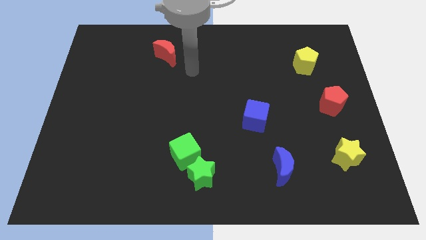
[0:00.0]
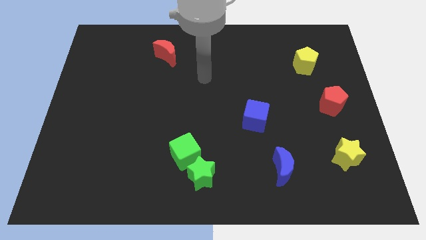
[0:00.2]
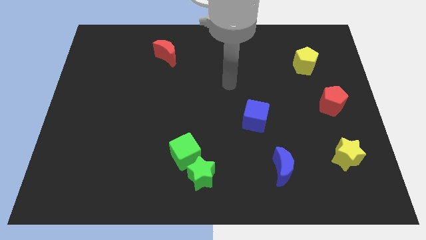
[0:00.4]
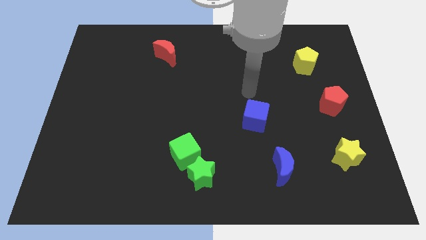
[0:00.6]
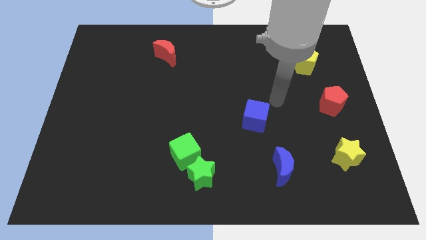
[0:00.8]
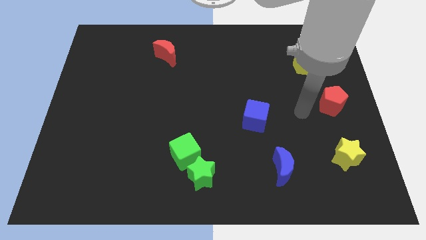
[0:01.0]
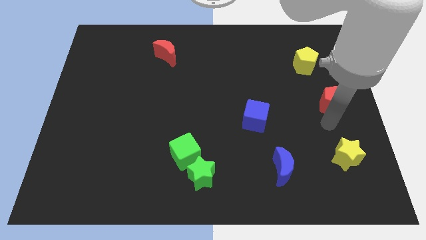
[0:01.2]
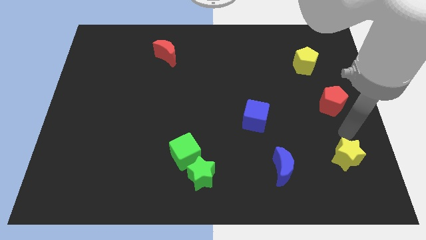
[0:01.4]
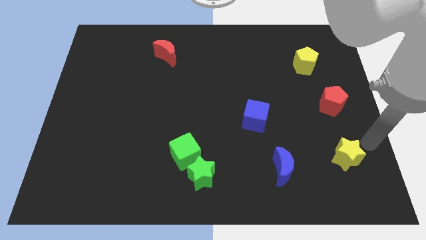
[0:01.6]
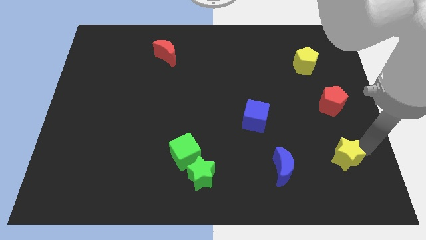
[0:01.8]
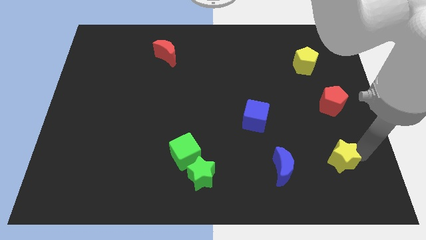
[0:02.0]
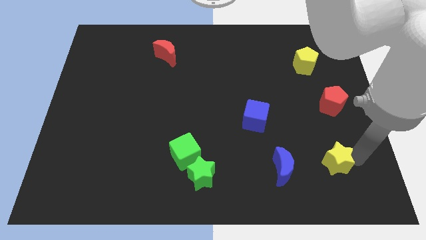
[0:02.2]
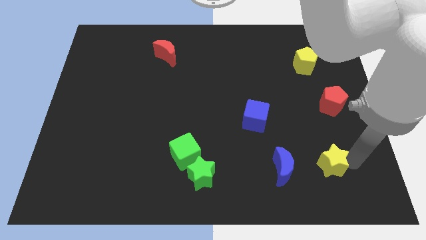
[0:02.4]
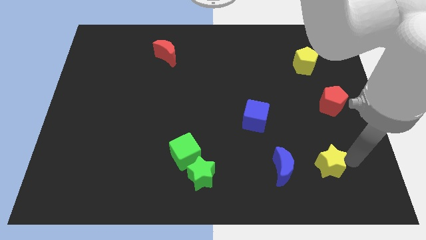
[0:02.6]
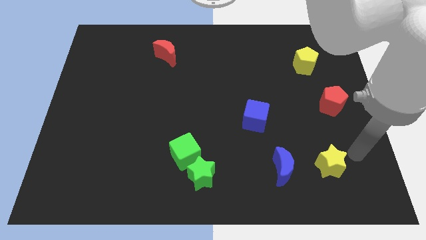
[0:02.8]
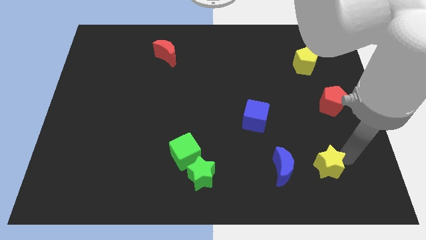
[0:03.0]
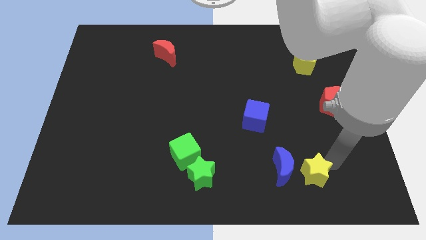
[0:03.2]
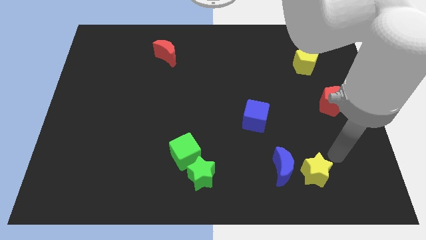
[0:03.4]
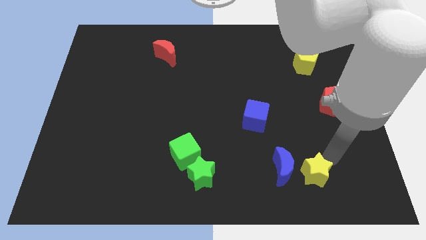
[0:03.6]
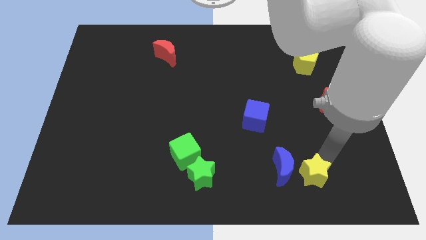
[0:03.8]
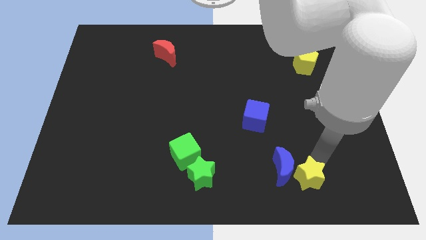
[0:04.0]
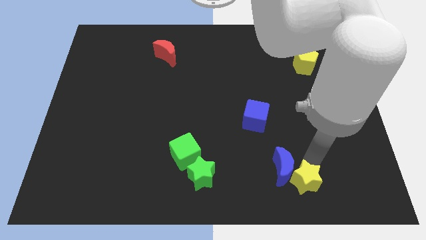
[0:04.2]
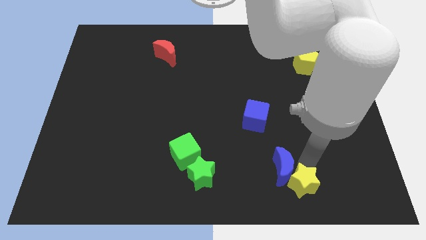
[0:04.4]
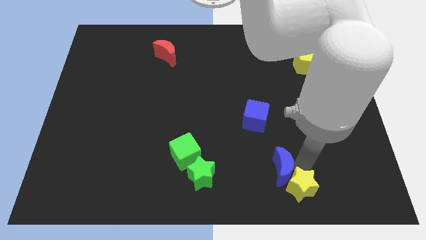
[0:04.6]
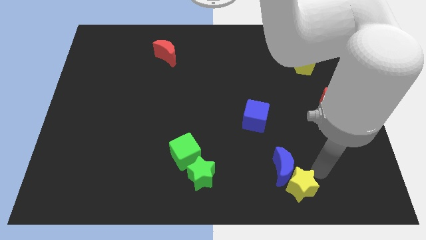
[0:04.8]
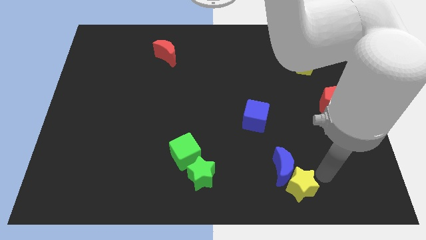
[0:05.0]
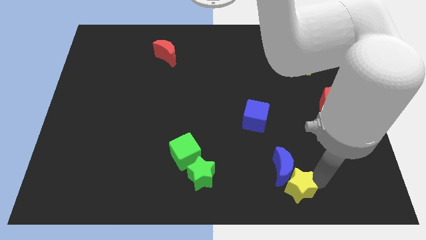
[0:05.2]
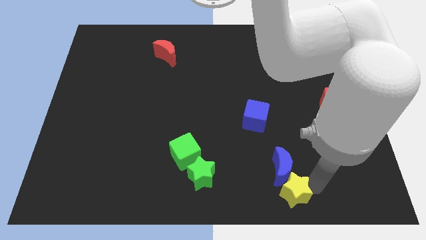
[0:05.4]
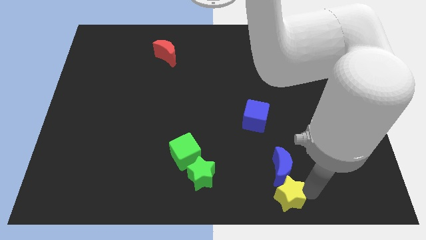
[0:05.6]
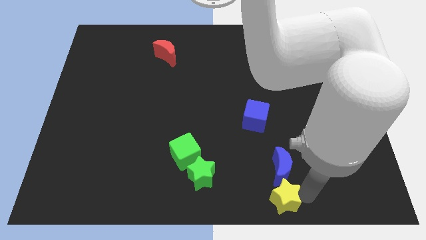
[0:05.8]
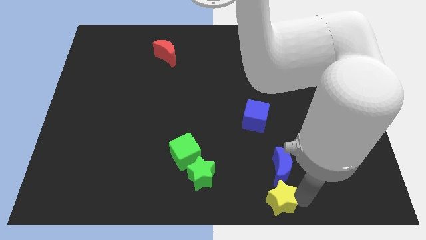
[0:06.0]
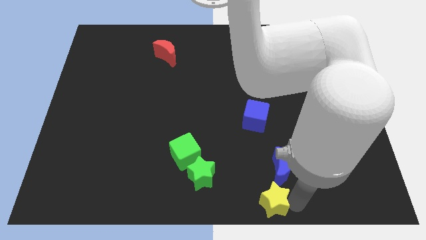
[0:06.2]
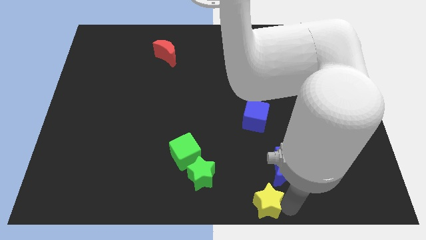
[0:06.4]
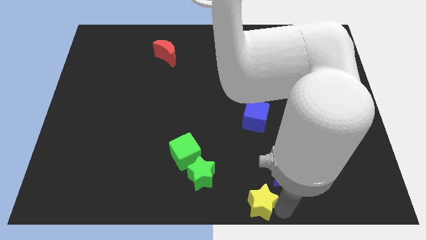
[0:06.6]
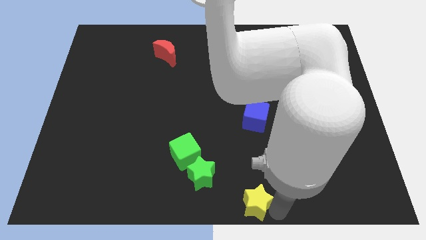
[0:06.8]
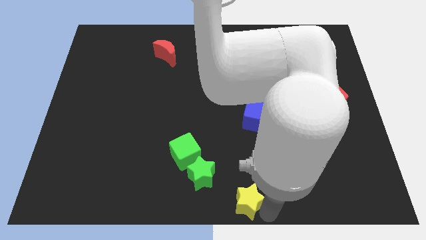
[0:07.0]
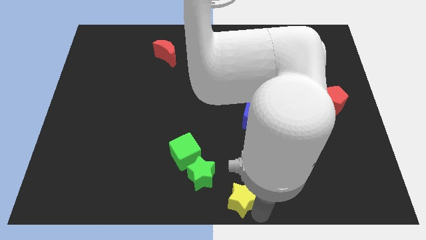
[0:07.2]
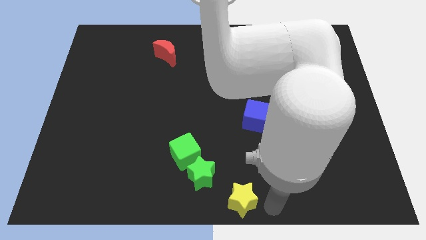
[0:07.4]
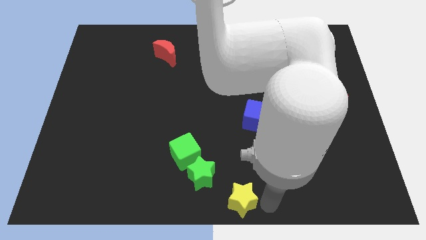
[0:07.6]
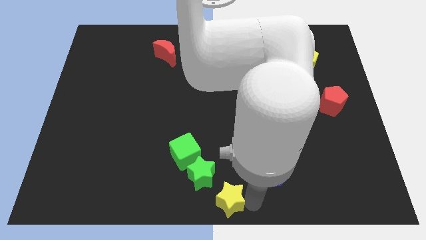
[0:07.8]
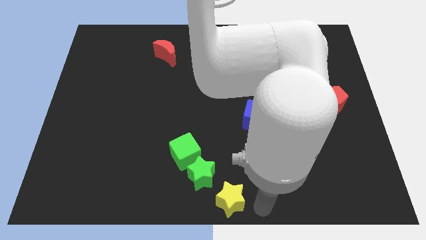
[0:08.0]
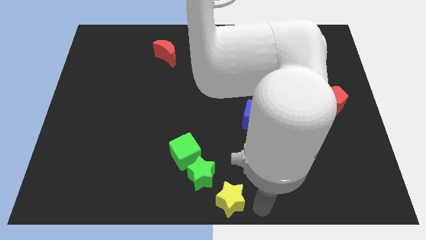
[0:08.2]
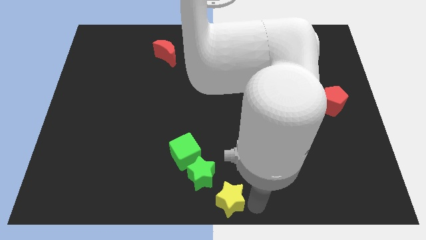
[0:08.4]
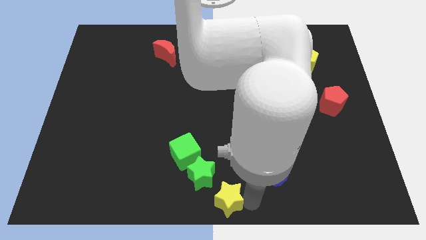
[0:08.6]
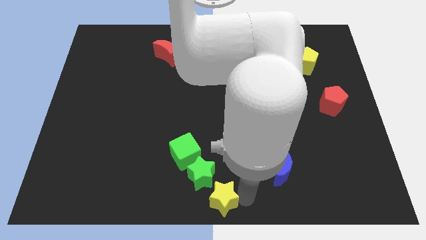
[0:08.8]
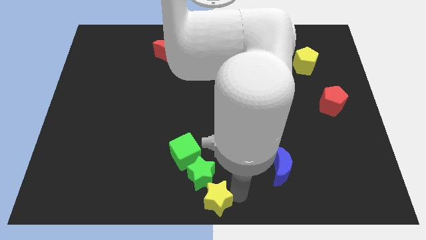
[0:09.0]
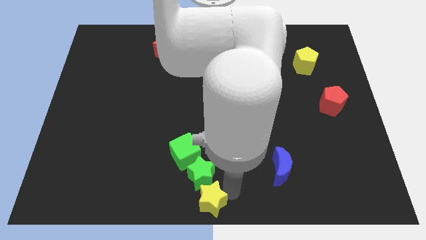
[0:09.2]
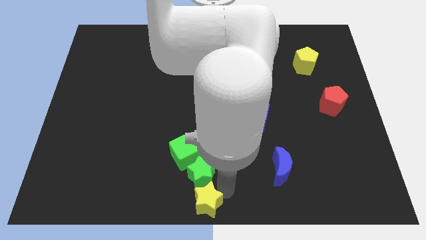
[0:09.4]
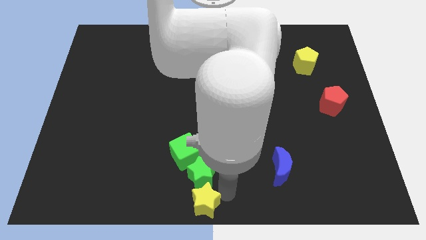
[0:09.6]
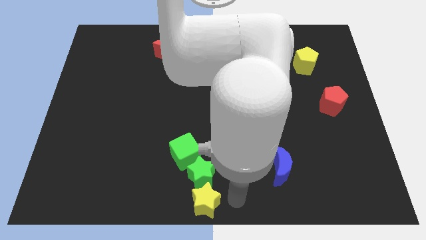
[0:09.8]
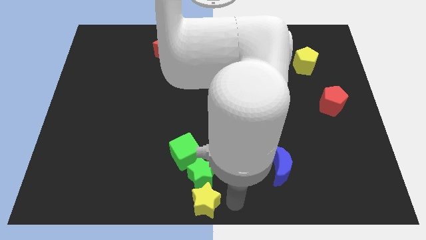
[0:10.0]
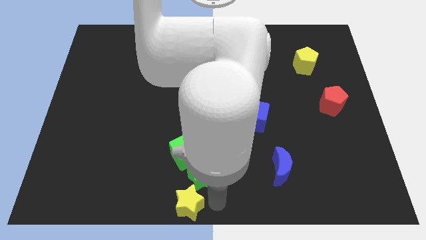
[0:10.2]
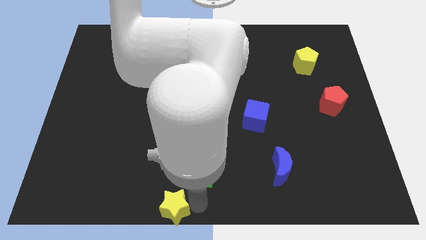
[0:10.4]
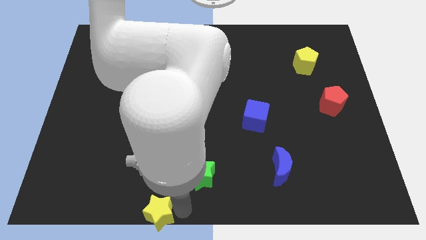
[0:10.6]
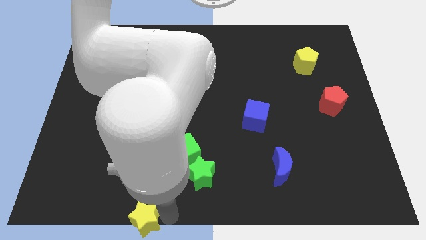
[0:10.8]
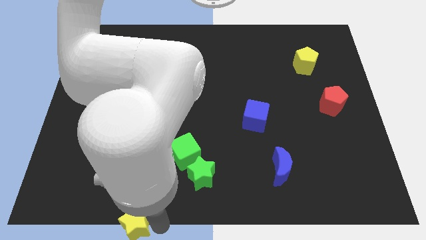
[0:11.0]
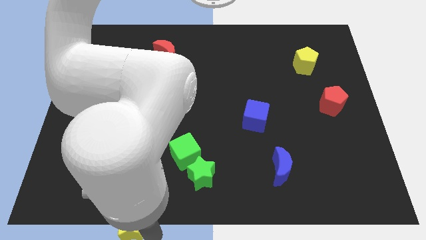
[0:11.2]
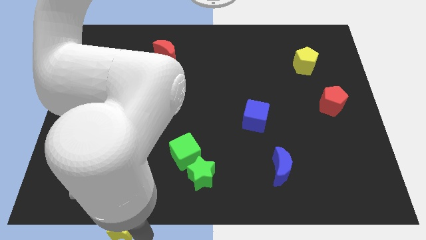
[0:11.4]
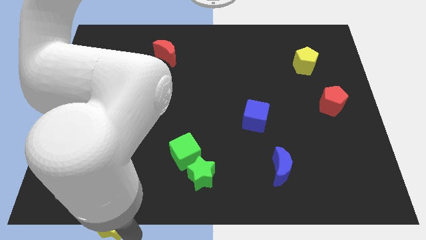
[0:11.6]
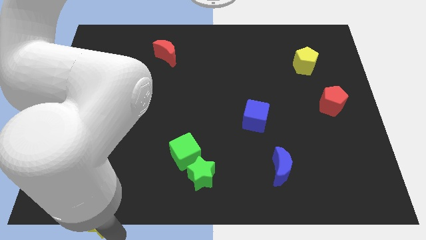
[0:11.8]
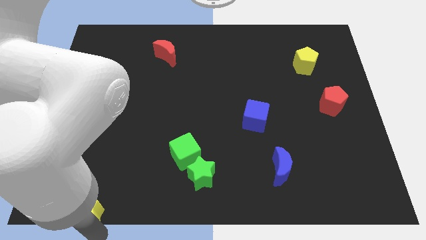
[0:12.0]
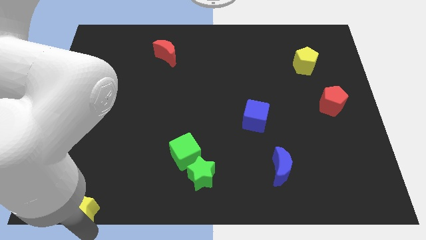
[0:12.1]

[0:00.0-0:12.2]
put the yellow star to the lower left corner
